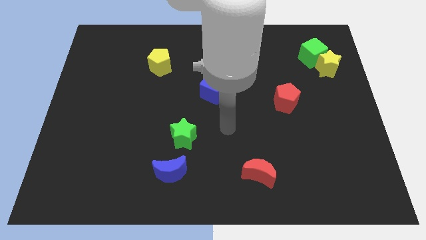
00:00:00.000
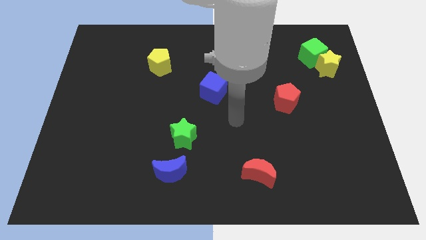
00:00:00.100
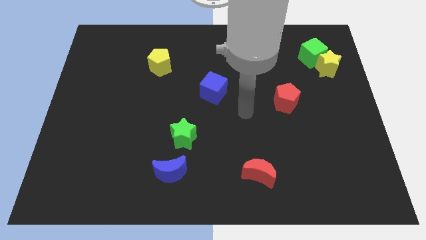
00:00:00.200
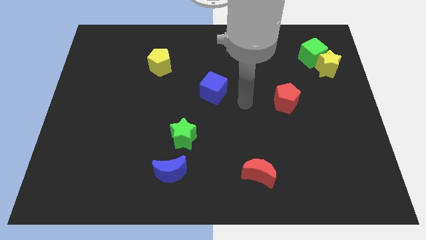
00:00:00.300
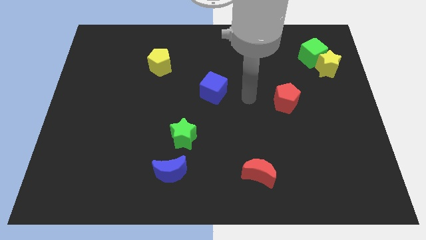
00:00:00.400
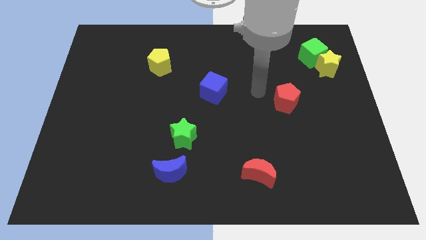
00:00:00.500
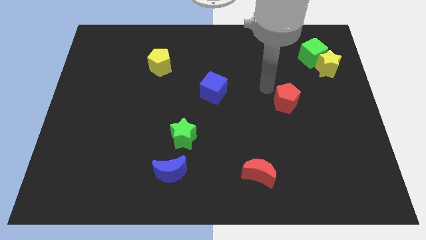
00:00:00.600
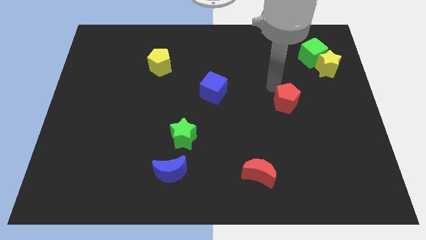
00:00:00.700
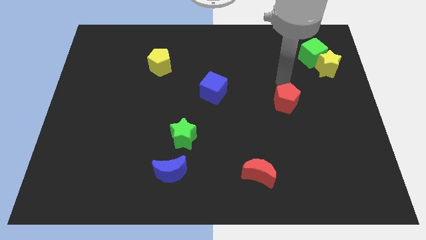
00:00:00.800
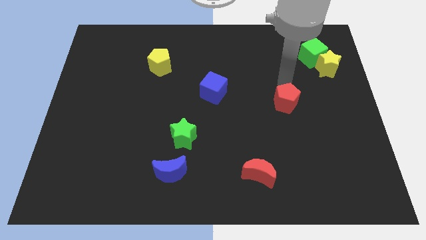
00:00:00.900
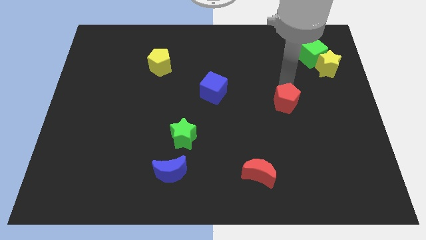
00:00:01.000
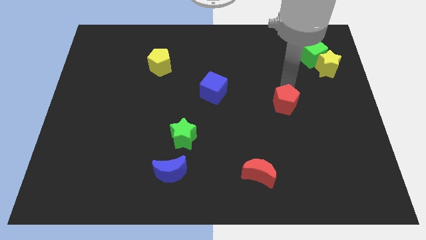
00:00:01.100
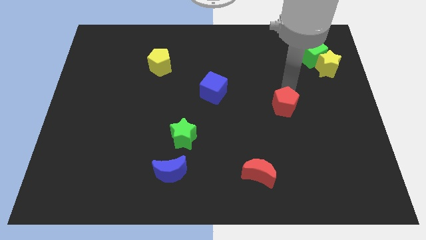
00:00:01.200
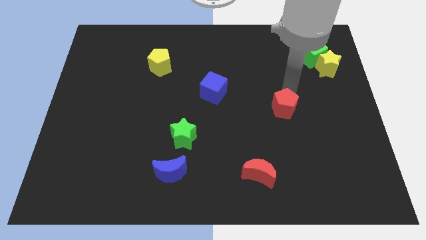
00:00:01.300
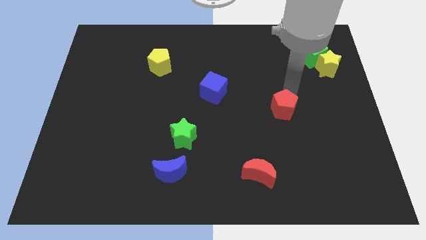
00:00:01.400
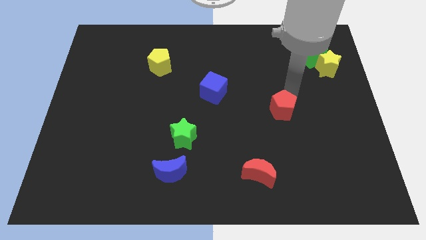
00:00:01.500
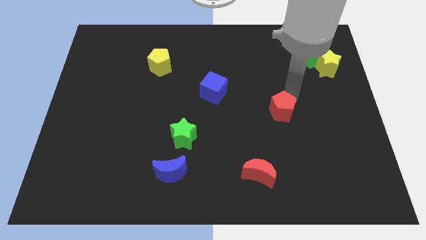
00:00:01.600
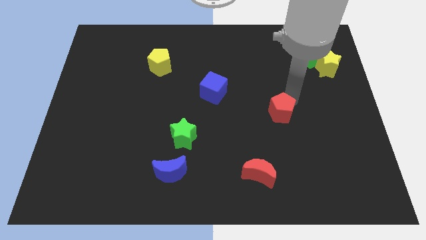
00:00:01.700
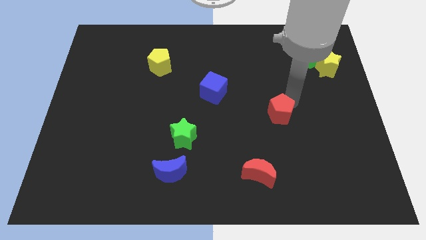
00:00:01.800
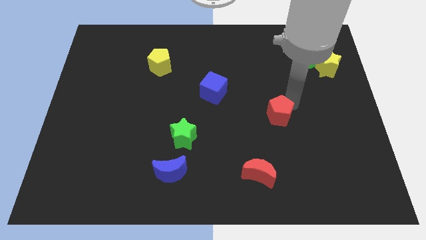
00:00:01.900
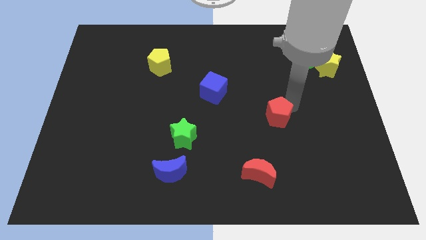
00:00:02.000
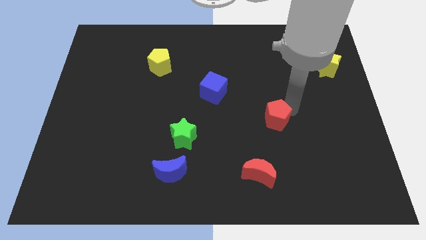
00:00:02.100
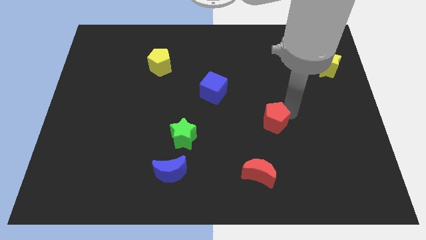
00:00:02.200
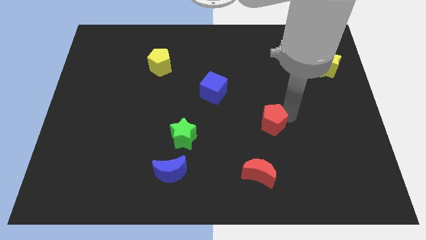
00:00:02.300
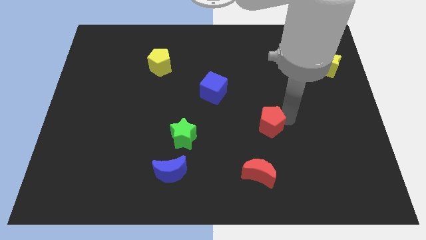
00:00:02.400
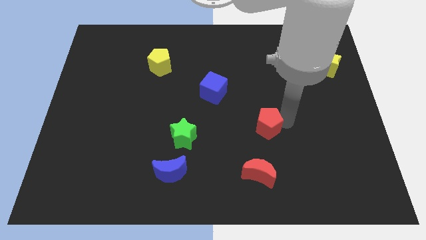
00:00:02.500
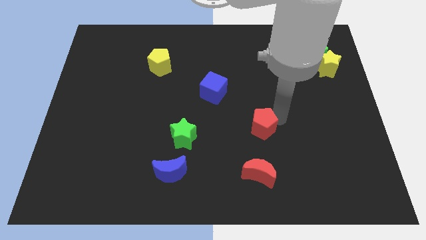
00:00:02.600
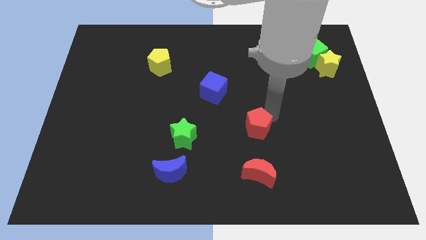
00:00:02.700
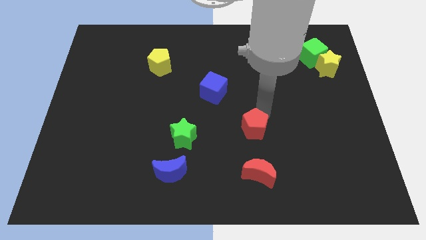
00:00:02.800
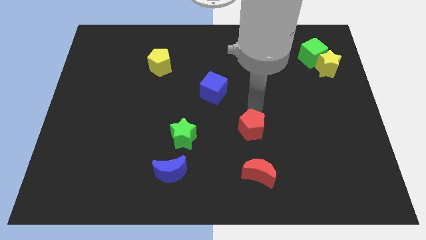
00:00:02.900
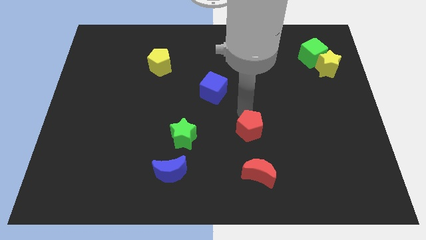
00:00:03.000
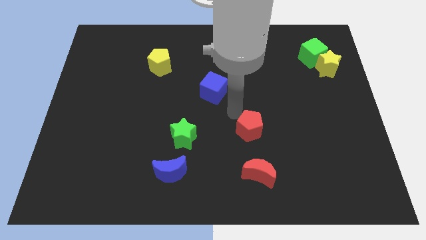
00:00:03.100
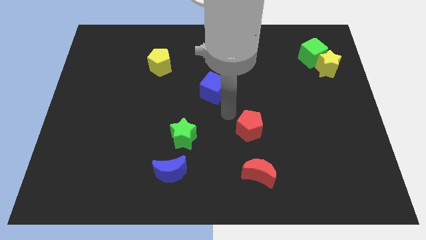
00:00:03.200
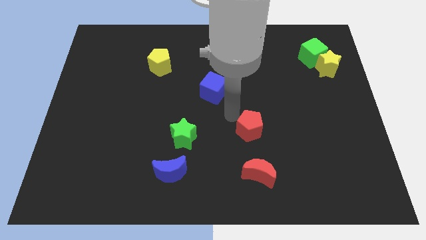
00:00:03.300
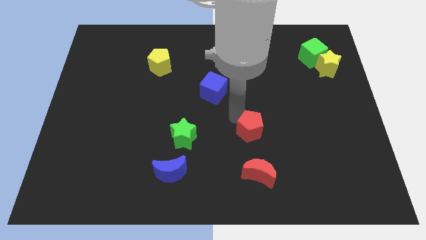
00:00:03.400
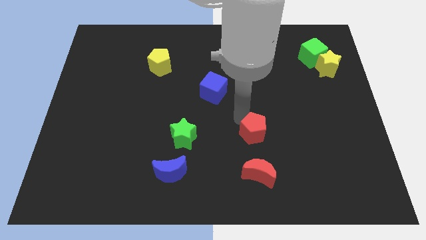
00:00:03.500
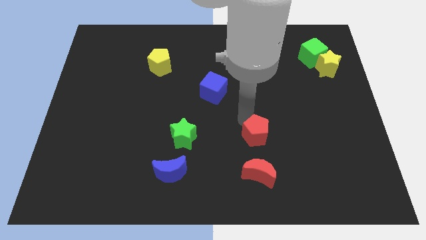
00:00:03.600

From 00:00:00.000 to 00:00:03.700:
push the red pentagon down a little bit

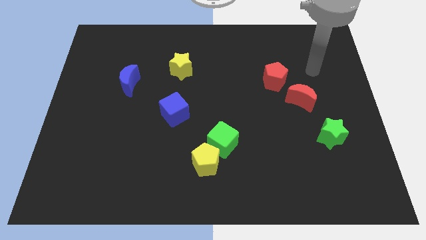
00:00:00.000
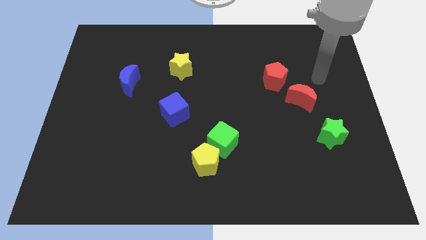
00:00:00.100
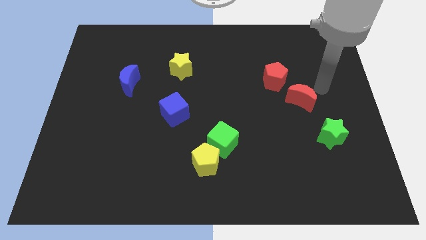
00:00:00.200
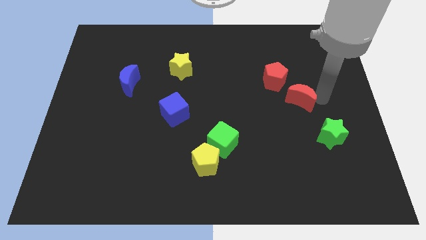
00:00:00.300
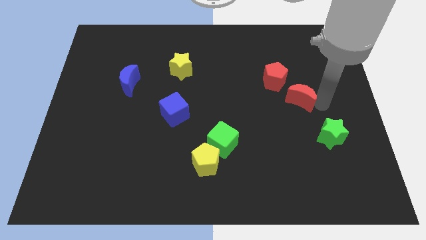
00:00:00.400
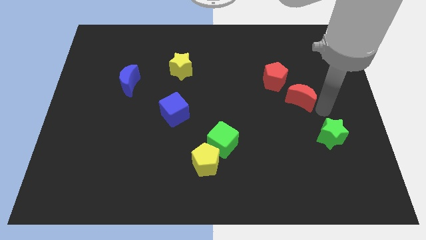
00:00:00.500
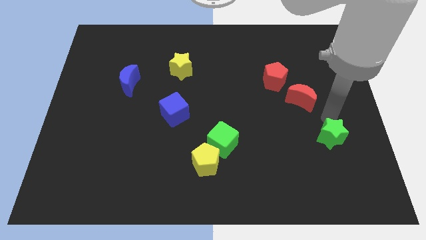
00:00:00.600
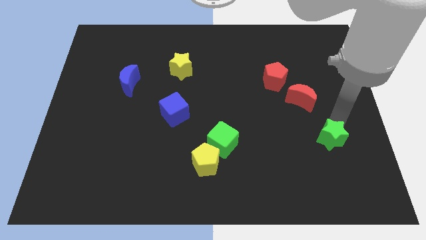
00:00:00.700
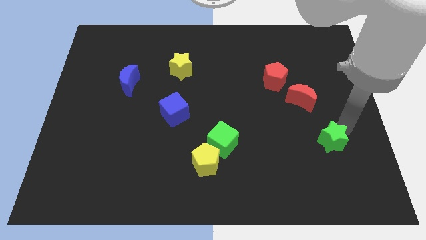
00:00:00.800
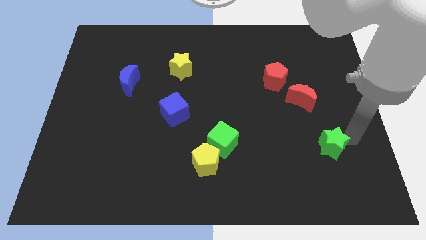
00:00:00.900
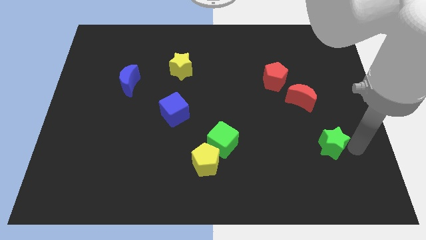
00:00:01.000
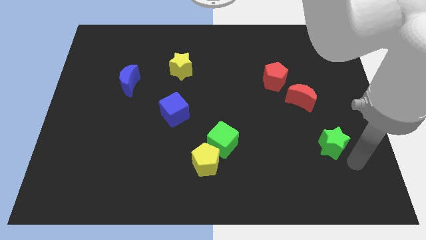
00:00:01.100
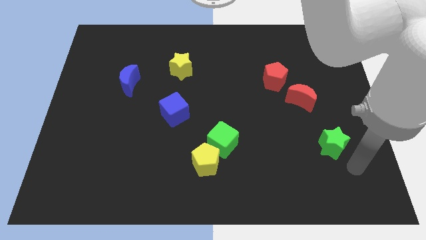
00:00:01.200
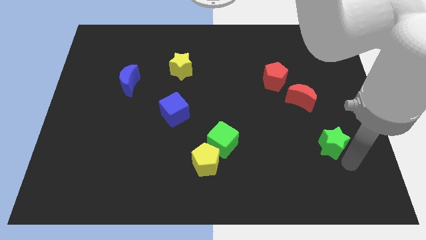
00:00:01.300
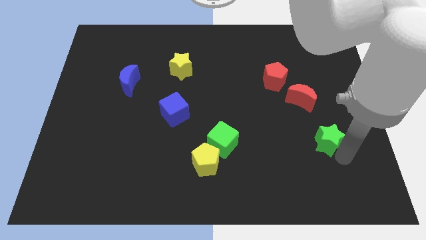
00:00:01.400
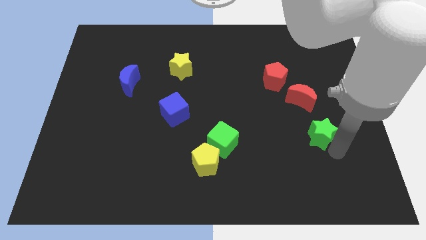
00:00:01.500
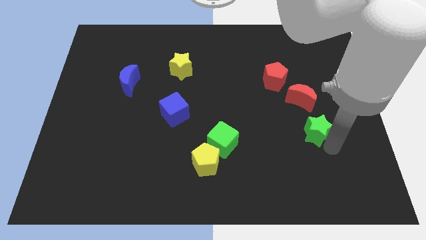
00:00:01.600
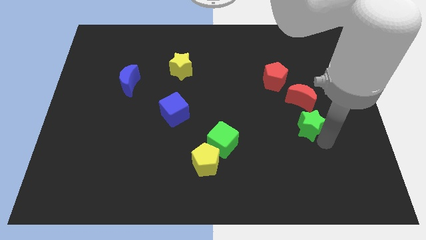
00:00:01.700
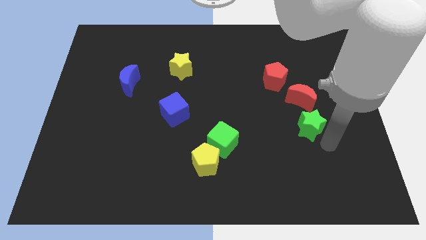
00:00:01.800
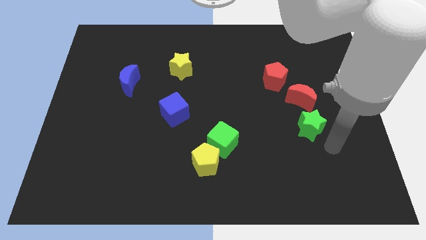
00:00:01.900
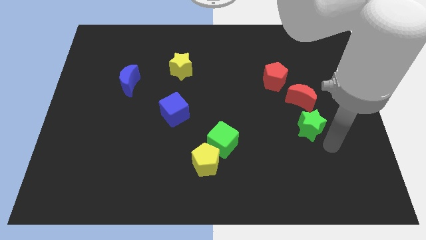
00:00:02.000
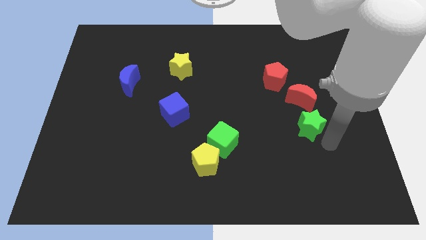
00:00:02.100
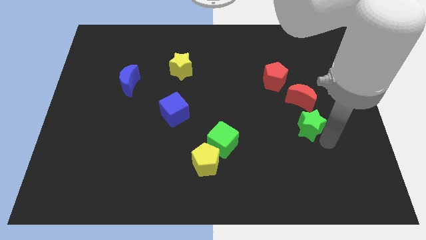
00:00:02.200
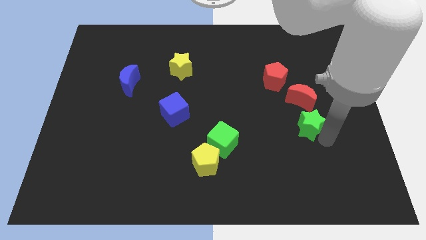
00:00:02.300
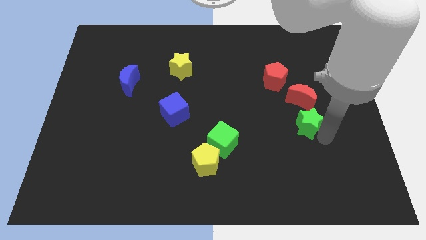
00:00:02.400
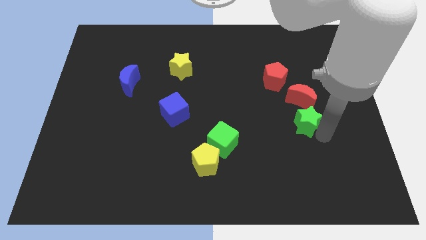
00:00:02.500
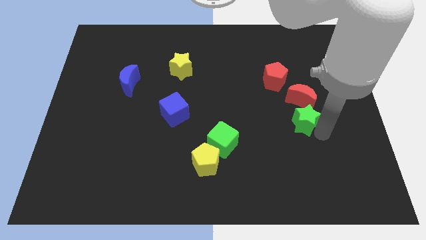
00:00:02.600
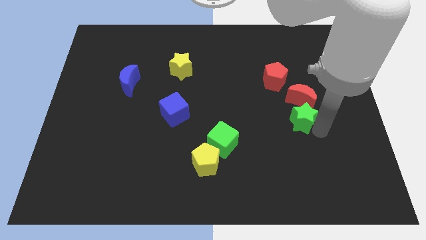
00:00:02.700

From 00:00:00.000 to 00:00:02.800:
slide the green star up and left diagonally a little bit

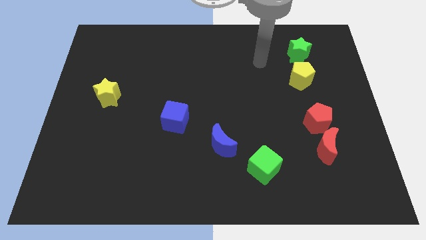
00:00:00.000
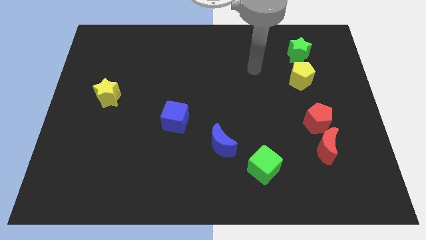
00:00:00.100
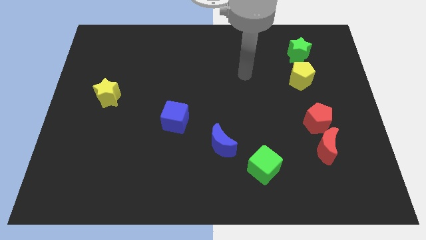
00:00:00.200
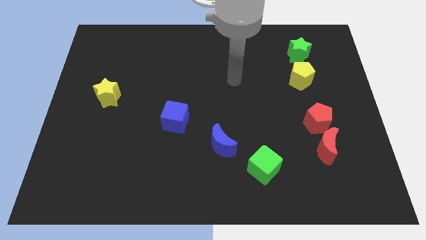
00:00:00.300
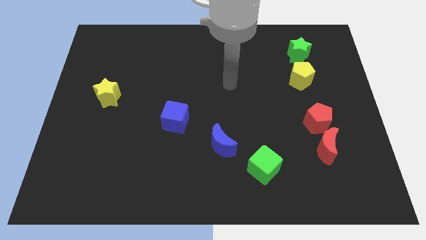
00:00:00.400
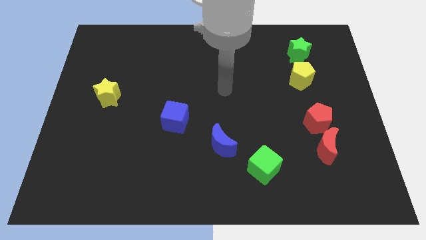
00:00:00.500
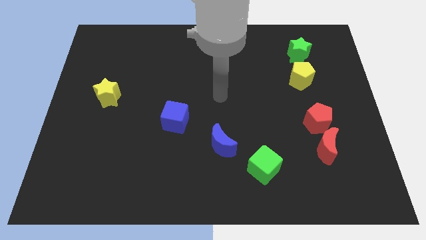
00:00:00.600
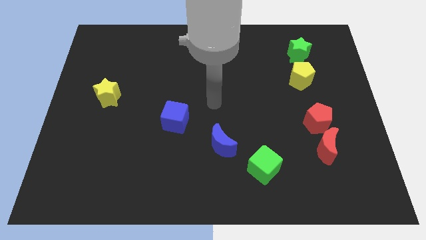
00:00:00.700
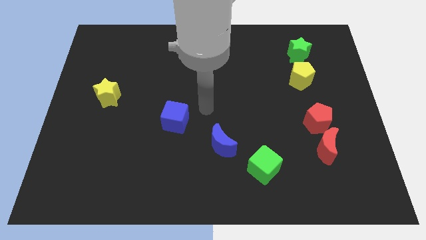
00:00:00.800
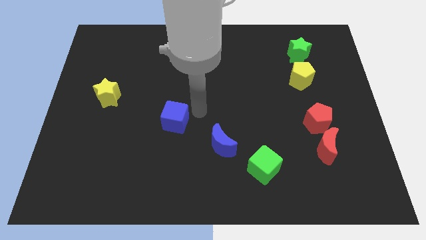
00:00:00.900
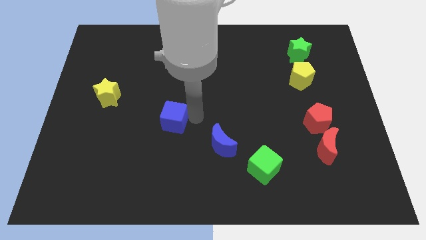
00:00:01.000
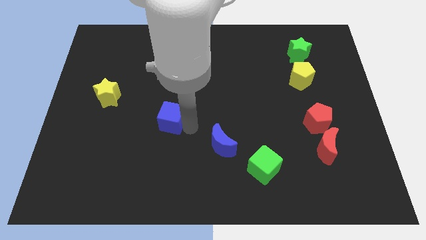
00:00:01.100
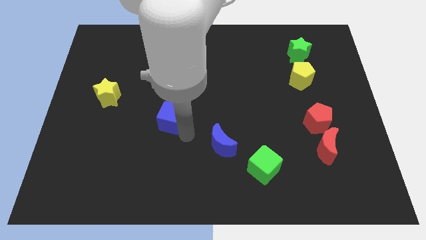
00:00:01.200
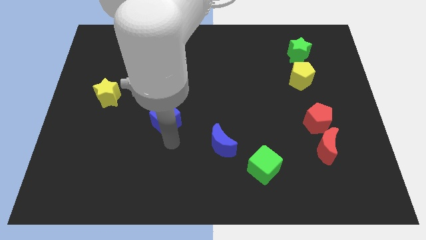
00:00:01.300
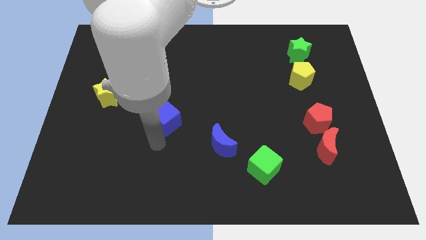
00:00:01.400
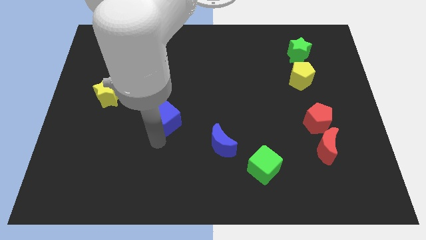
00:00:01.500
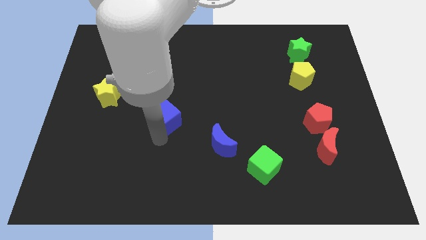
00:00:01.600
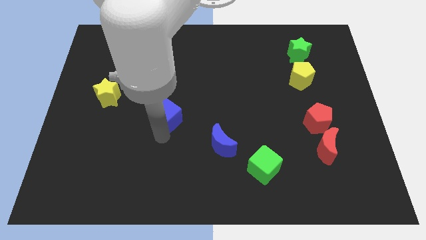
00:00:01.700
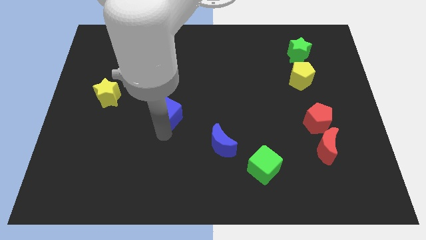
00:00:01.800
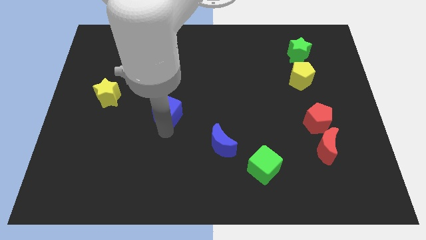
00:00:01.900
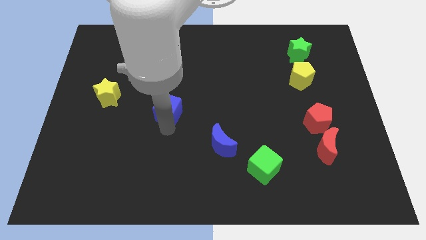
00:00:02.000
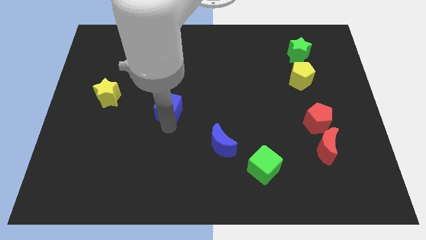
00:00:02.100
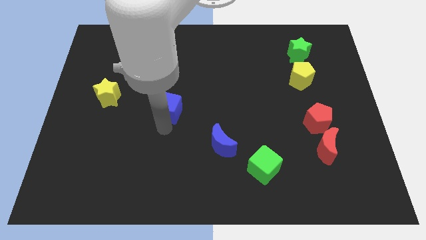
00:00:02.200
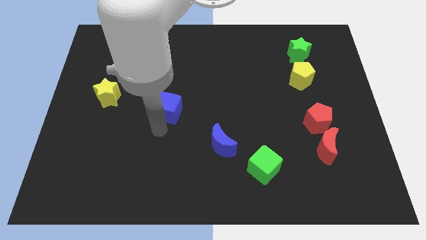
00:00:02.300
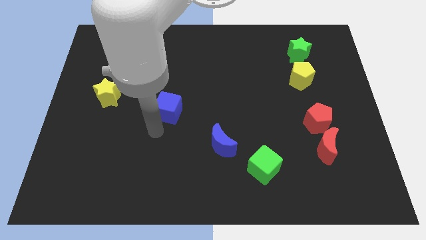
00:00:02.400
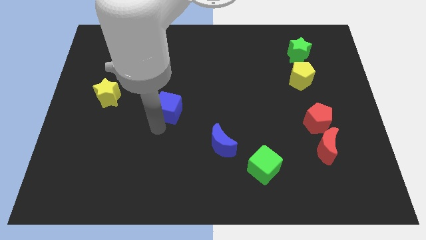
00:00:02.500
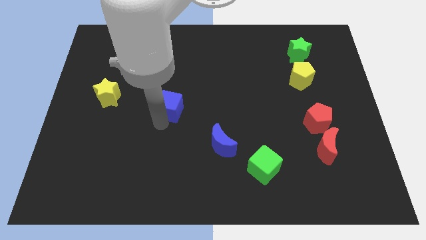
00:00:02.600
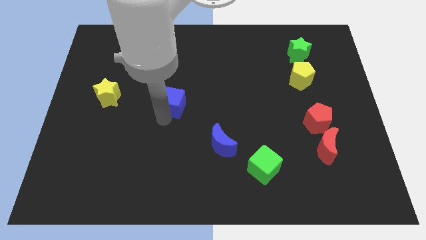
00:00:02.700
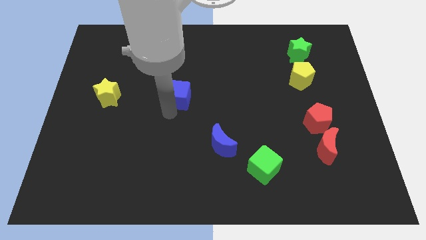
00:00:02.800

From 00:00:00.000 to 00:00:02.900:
move the blue cube upwards a little bit
